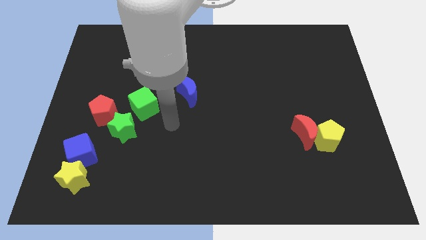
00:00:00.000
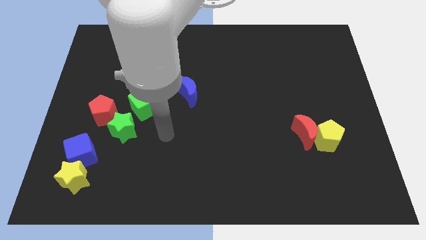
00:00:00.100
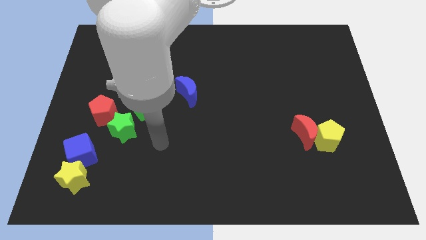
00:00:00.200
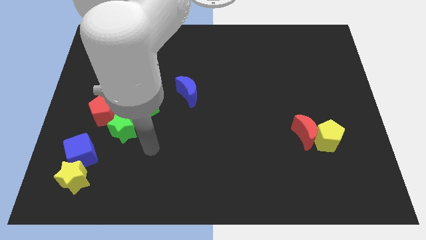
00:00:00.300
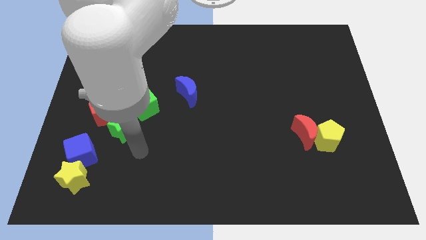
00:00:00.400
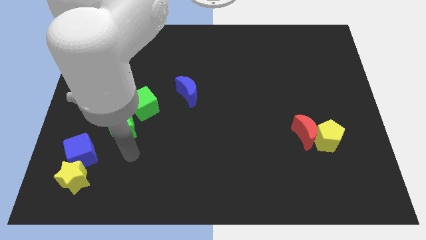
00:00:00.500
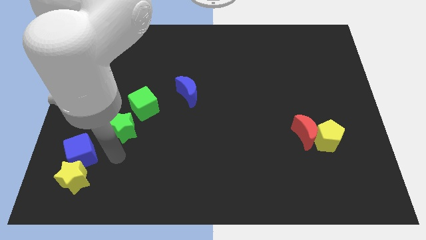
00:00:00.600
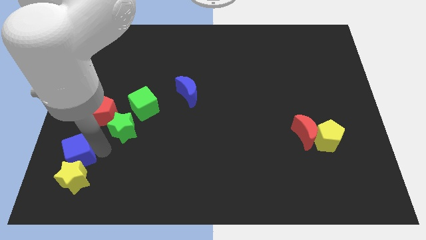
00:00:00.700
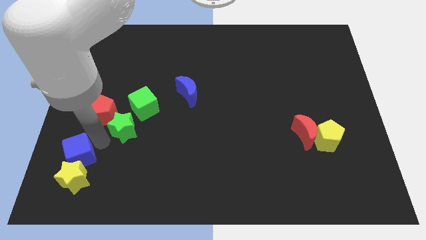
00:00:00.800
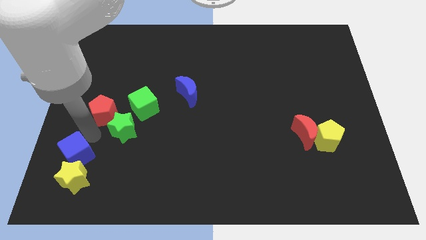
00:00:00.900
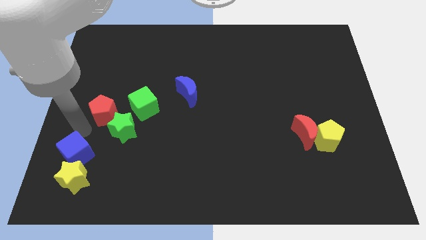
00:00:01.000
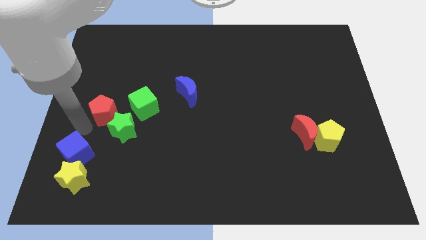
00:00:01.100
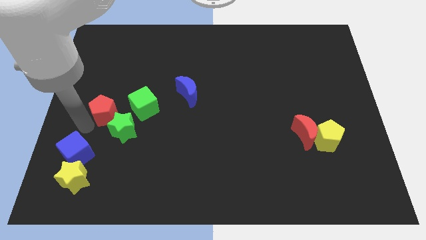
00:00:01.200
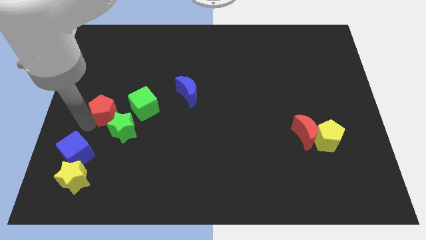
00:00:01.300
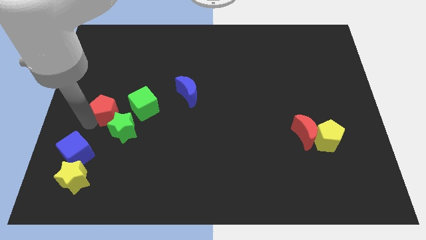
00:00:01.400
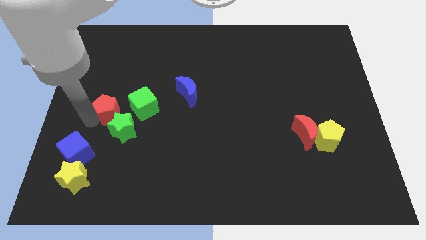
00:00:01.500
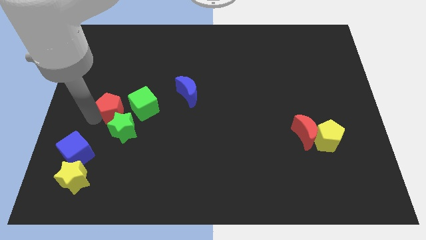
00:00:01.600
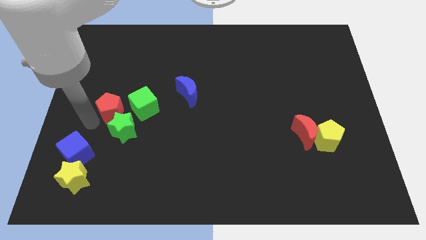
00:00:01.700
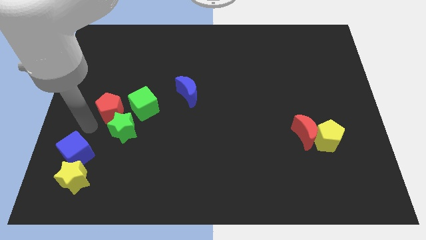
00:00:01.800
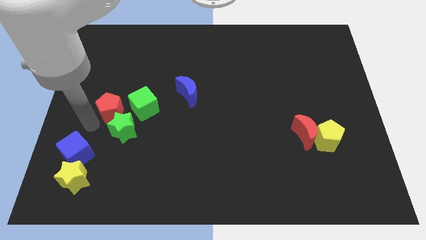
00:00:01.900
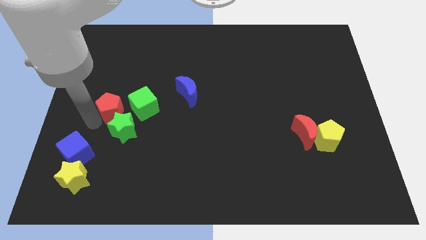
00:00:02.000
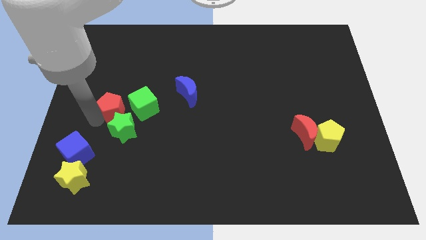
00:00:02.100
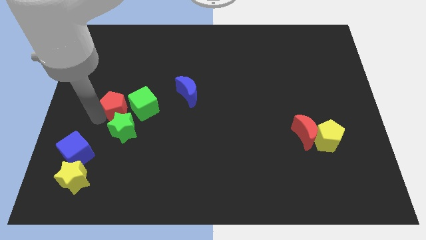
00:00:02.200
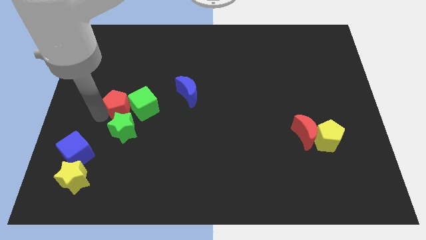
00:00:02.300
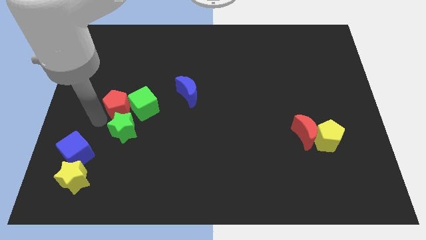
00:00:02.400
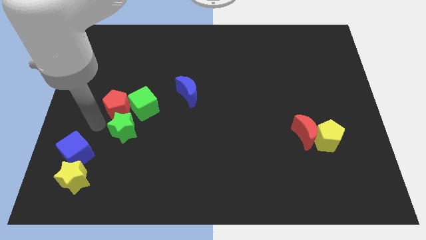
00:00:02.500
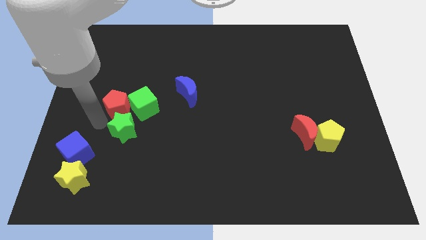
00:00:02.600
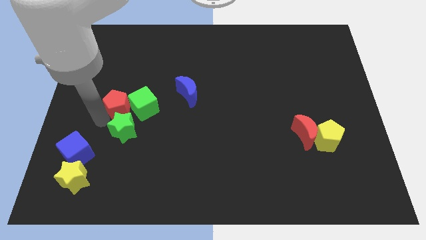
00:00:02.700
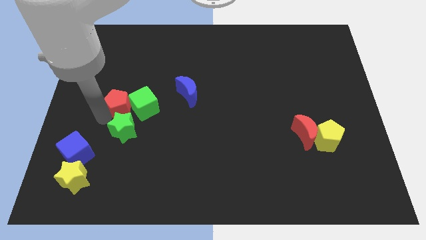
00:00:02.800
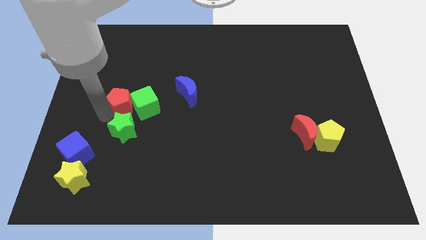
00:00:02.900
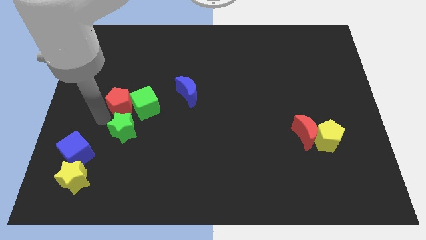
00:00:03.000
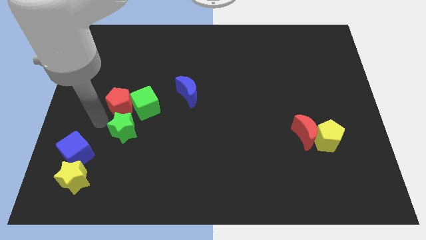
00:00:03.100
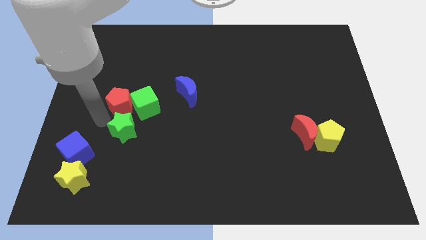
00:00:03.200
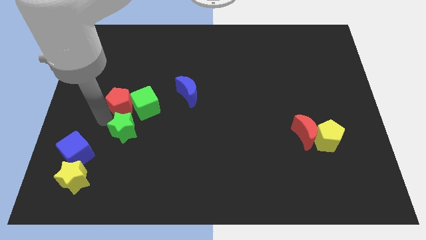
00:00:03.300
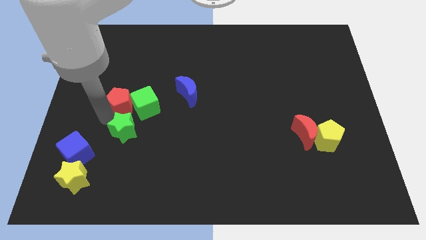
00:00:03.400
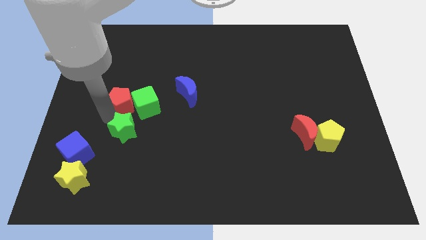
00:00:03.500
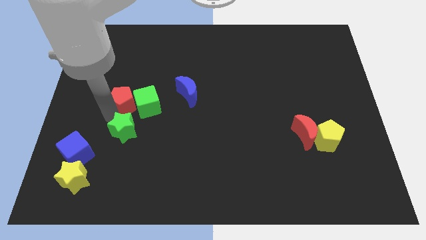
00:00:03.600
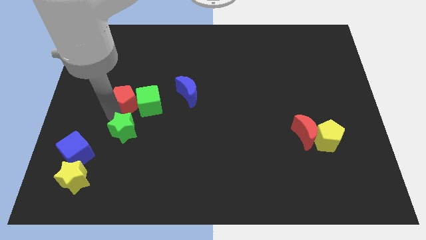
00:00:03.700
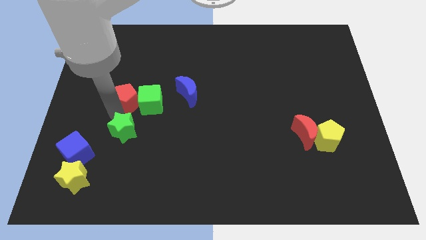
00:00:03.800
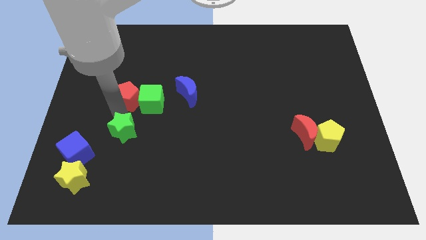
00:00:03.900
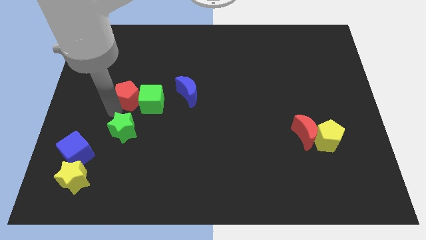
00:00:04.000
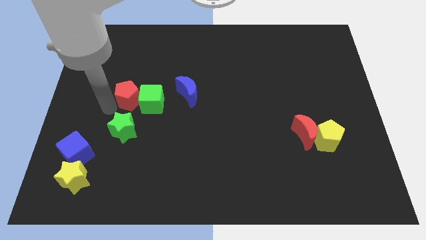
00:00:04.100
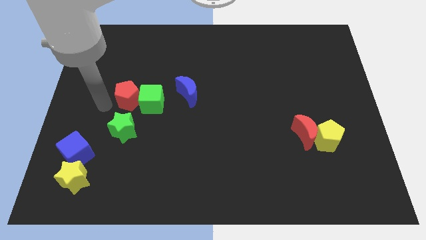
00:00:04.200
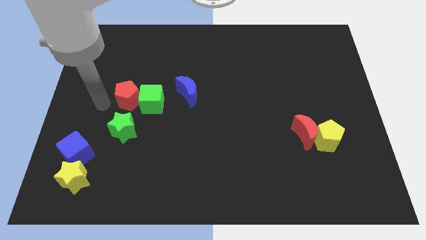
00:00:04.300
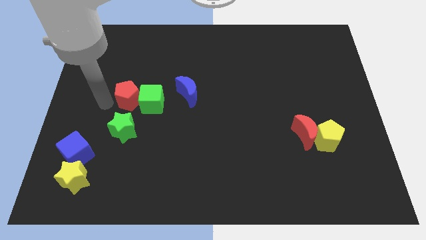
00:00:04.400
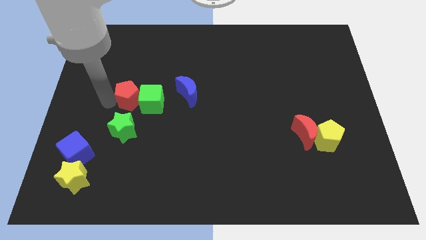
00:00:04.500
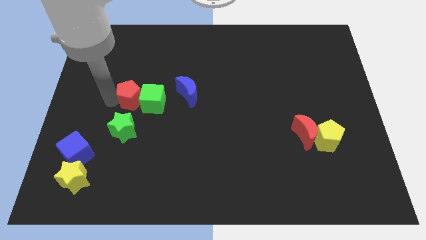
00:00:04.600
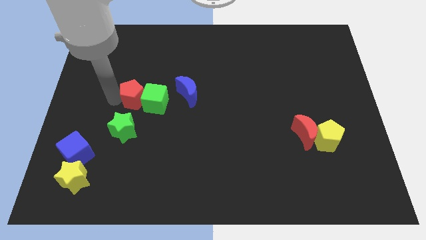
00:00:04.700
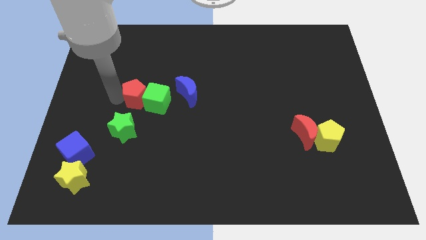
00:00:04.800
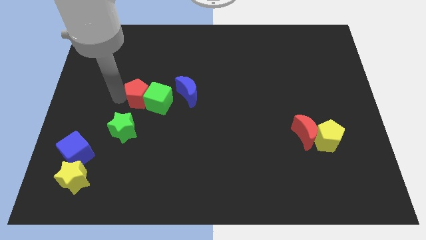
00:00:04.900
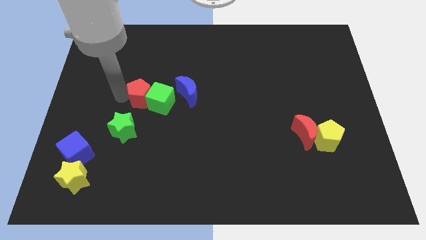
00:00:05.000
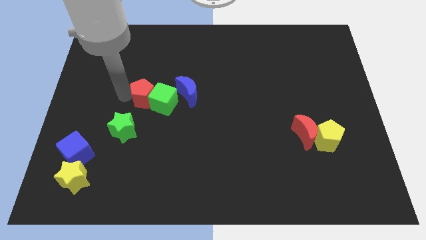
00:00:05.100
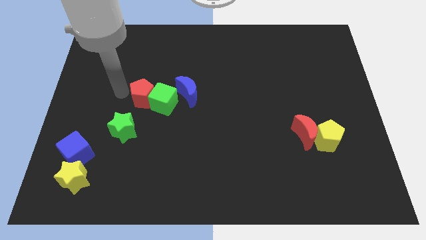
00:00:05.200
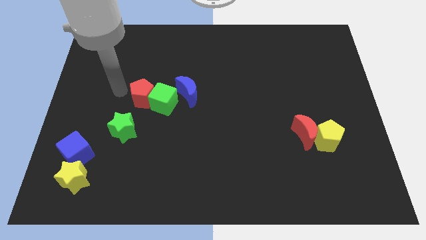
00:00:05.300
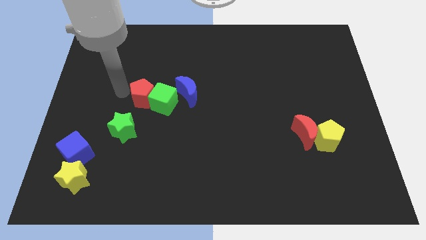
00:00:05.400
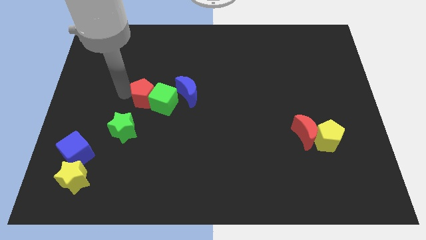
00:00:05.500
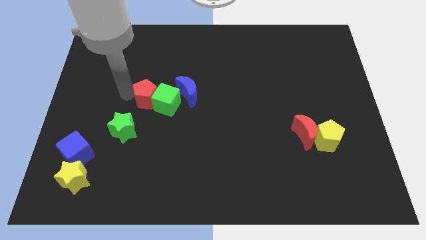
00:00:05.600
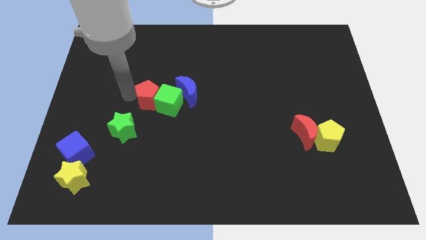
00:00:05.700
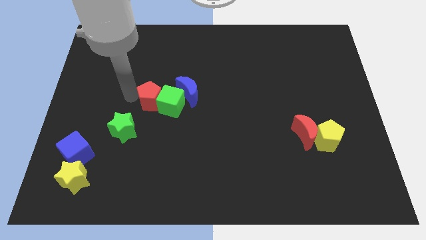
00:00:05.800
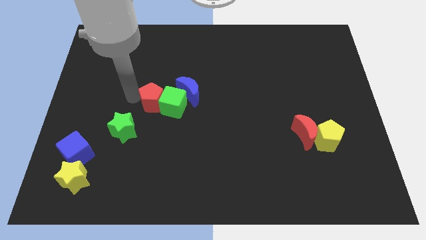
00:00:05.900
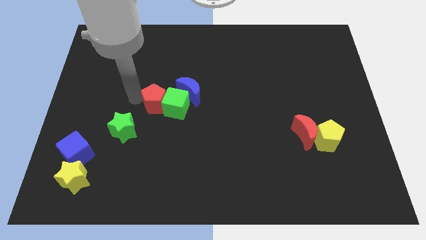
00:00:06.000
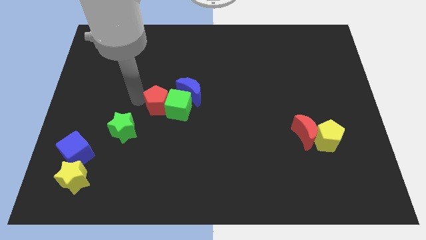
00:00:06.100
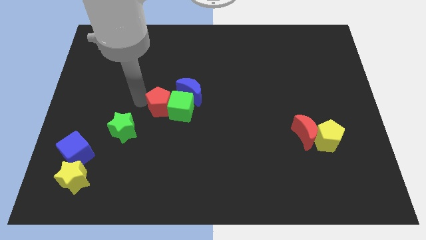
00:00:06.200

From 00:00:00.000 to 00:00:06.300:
push the red pentagon to the middle

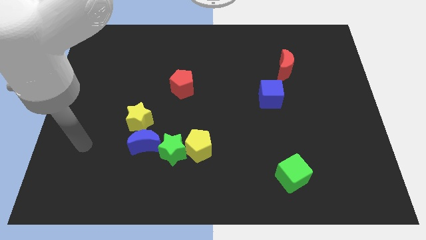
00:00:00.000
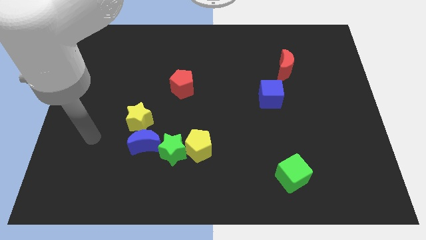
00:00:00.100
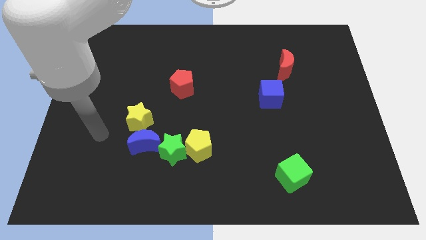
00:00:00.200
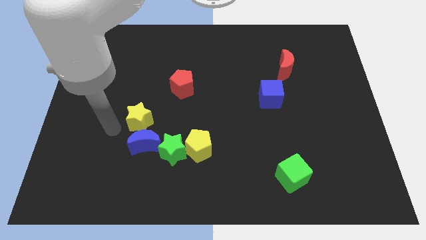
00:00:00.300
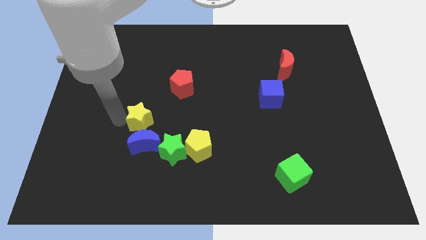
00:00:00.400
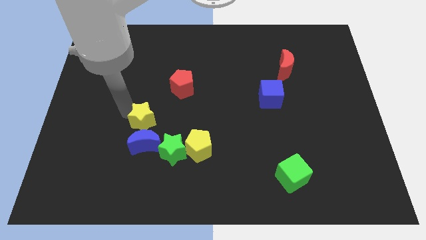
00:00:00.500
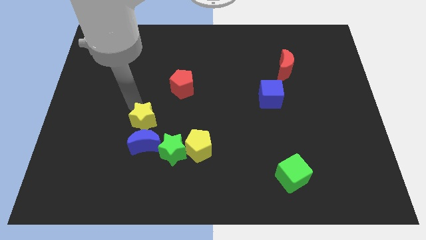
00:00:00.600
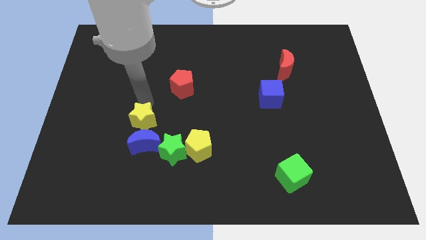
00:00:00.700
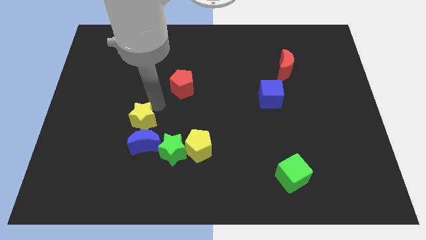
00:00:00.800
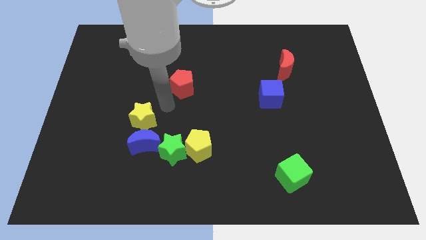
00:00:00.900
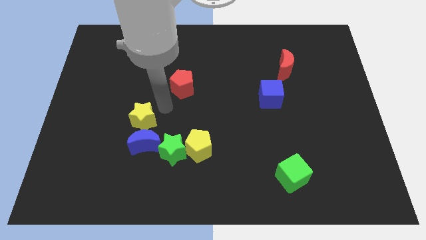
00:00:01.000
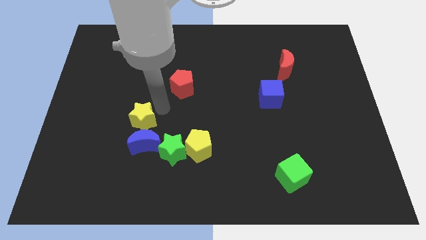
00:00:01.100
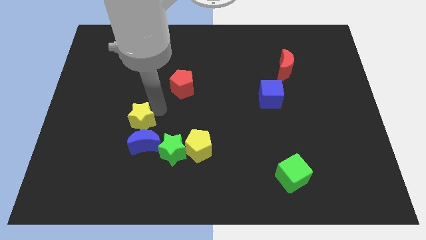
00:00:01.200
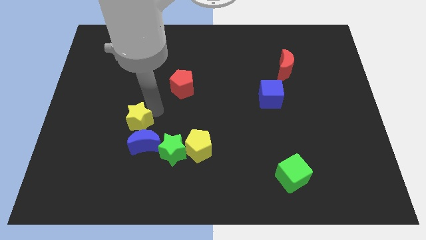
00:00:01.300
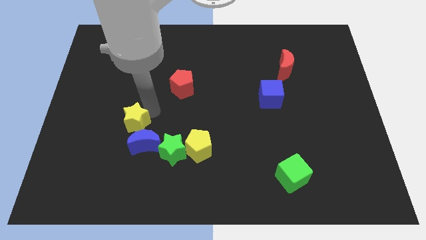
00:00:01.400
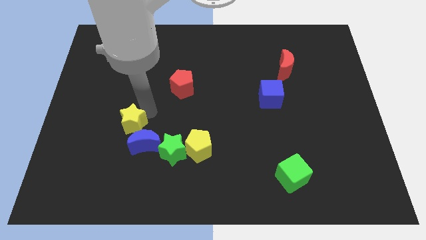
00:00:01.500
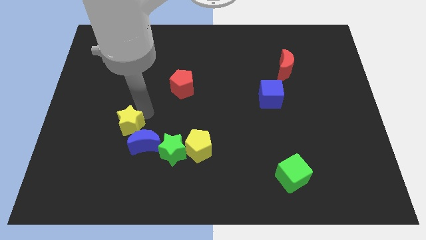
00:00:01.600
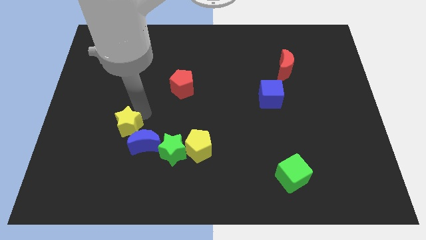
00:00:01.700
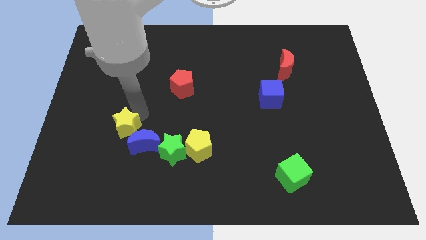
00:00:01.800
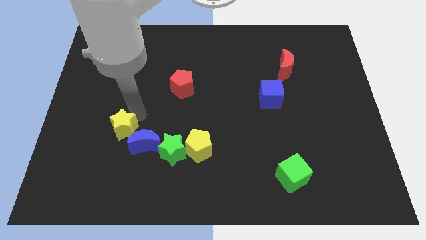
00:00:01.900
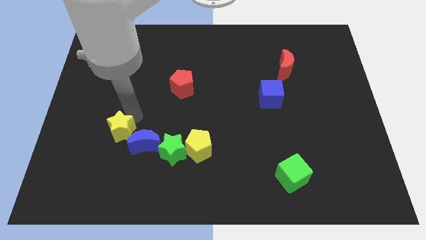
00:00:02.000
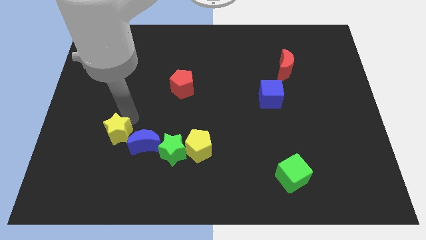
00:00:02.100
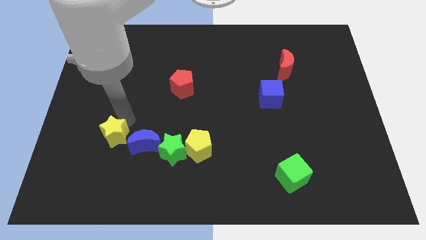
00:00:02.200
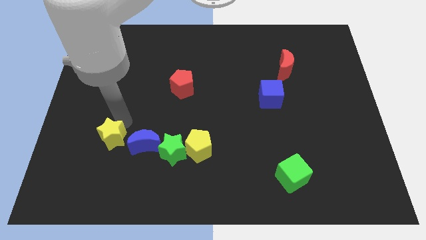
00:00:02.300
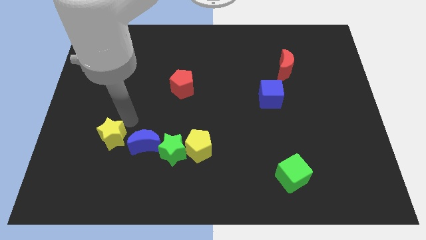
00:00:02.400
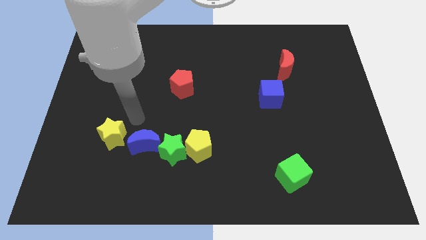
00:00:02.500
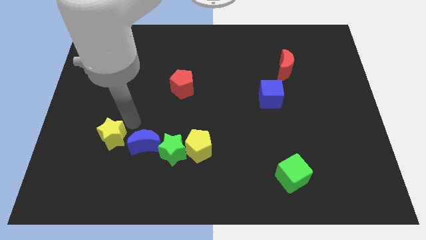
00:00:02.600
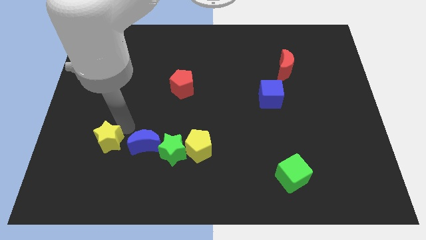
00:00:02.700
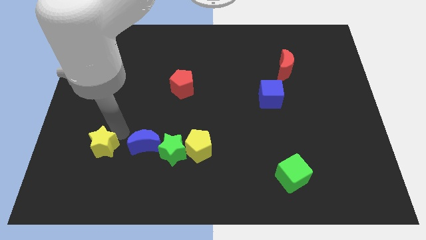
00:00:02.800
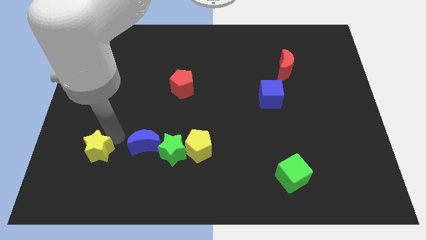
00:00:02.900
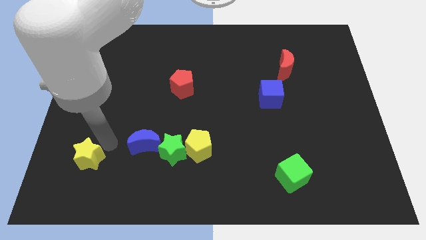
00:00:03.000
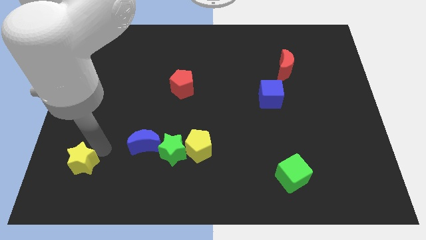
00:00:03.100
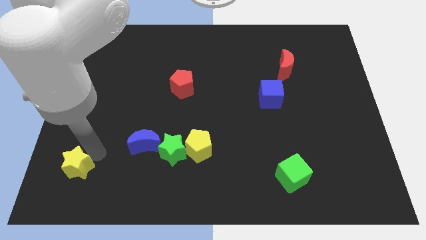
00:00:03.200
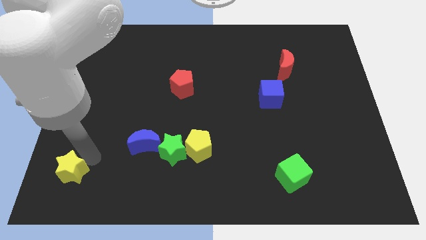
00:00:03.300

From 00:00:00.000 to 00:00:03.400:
put the yellow star to the bottom left corner
